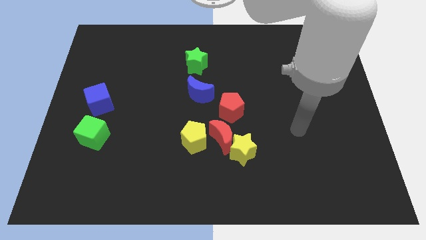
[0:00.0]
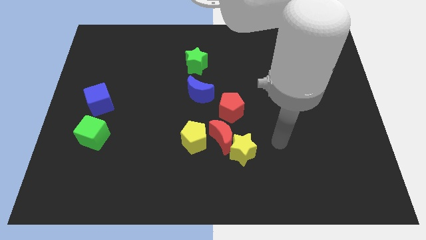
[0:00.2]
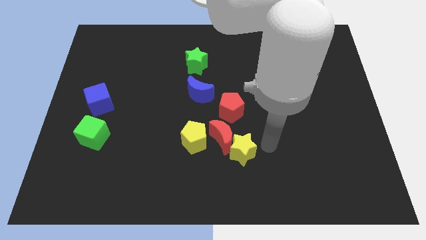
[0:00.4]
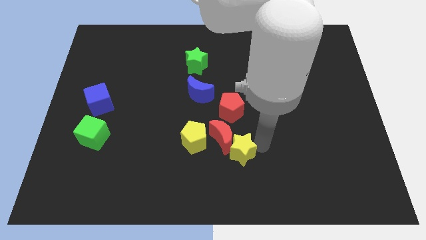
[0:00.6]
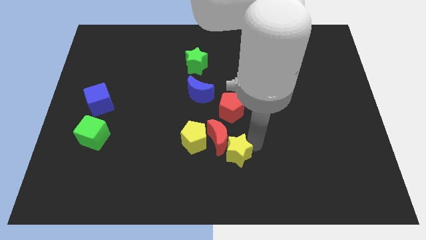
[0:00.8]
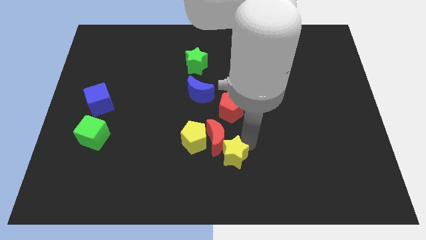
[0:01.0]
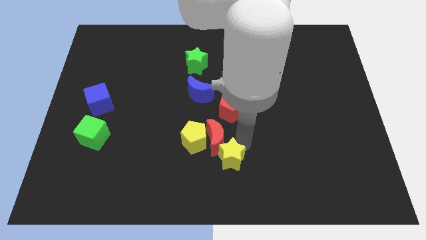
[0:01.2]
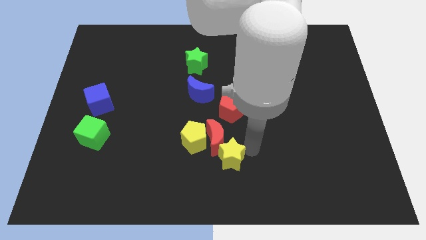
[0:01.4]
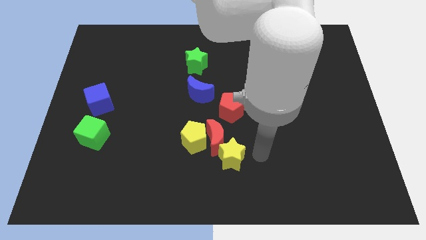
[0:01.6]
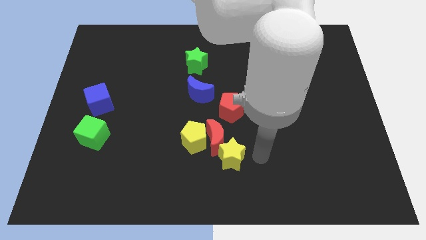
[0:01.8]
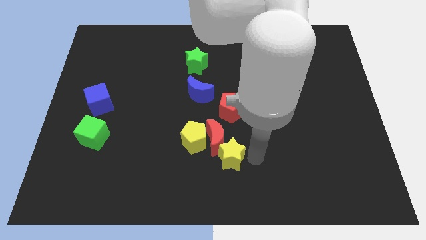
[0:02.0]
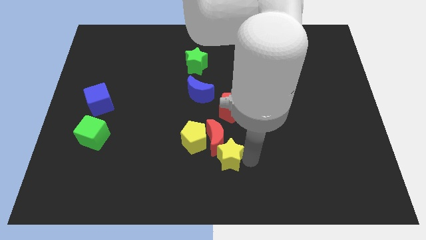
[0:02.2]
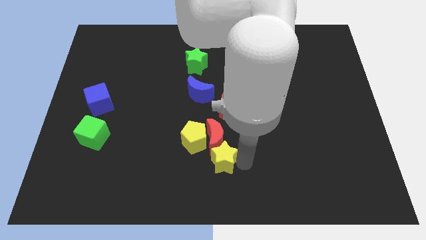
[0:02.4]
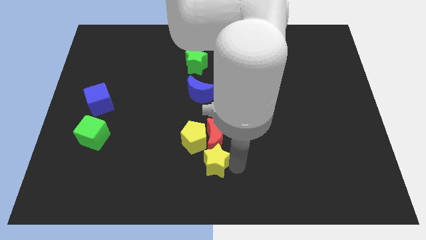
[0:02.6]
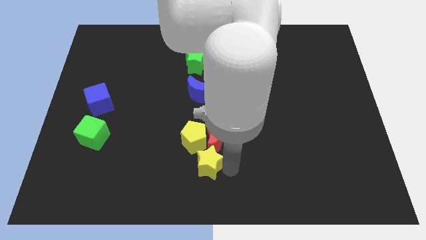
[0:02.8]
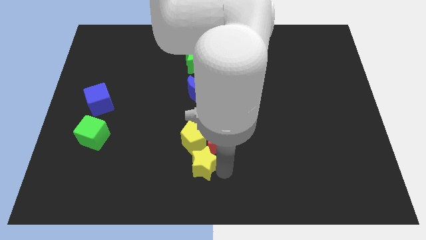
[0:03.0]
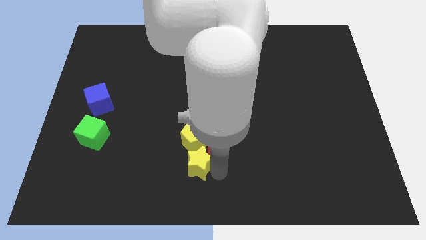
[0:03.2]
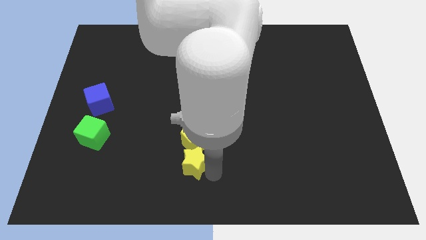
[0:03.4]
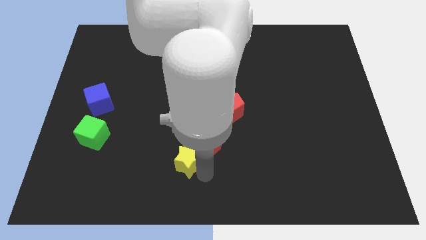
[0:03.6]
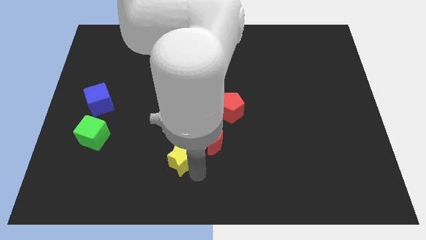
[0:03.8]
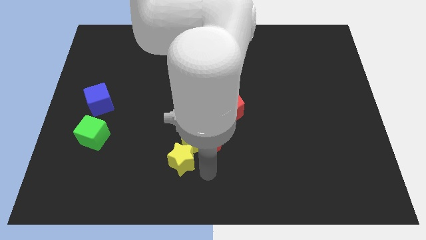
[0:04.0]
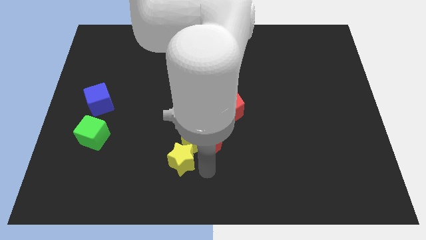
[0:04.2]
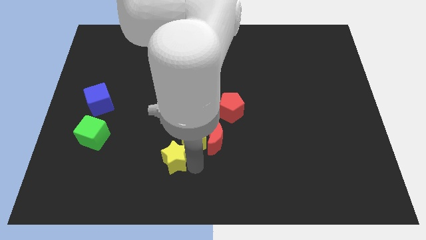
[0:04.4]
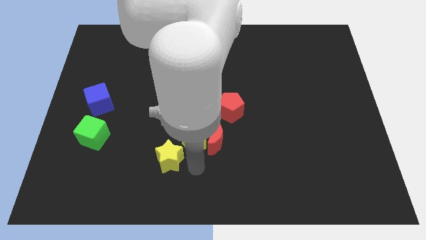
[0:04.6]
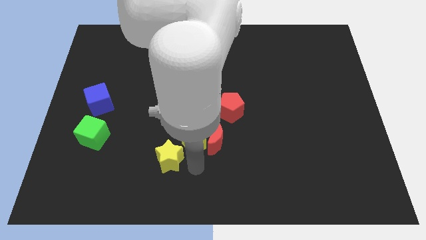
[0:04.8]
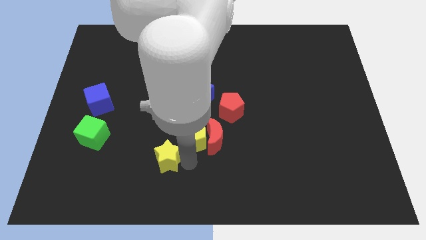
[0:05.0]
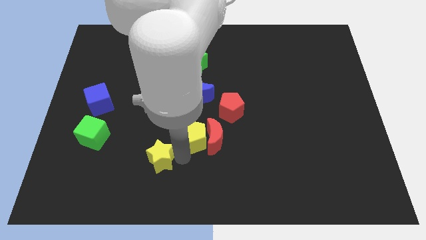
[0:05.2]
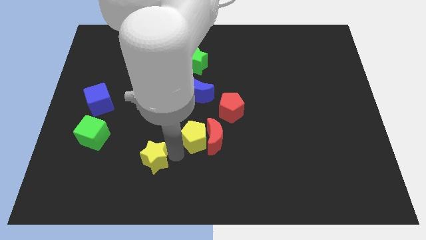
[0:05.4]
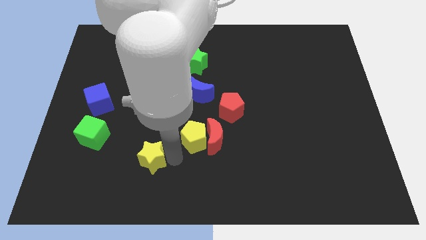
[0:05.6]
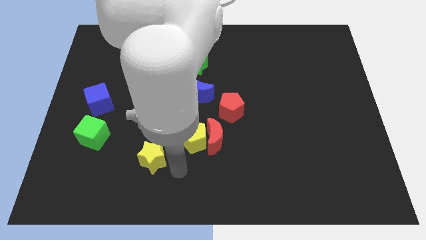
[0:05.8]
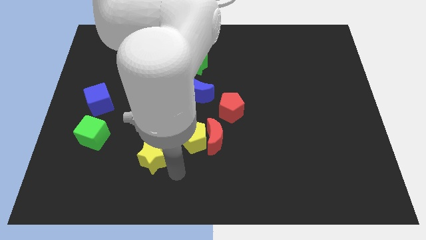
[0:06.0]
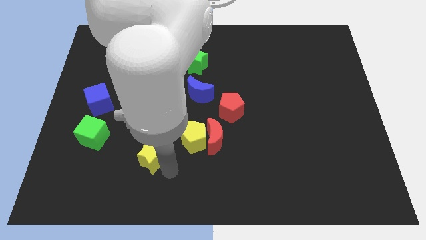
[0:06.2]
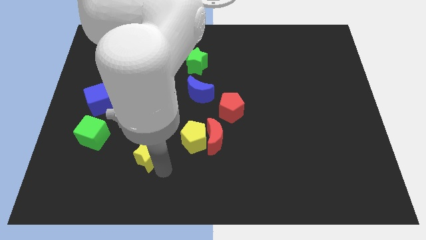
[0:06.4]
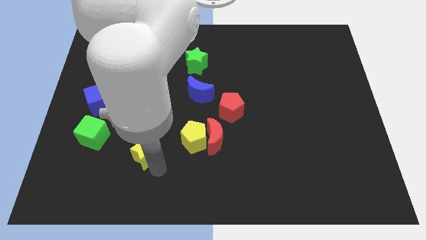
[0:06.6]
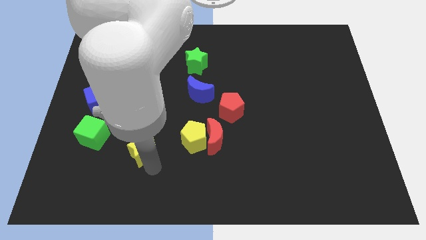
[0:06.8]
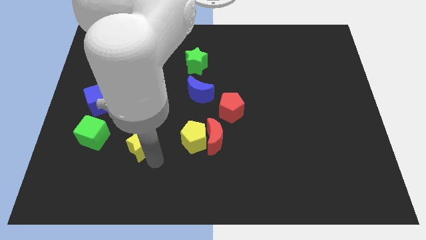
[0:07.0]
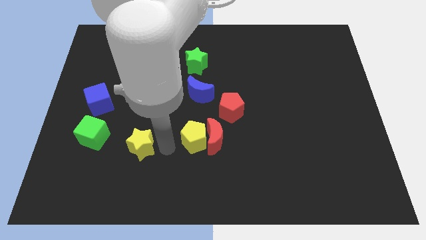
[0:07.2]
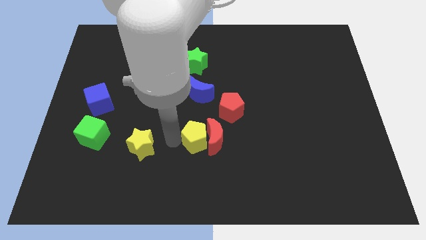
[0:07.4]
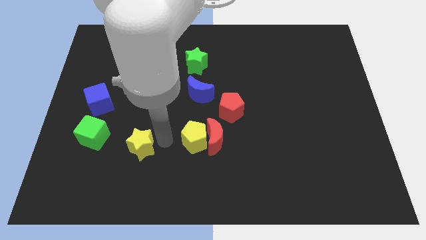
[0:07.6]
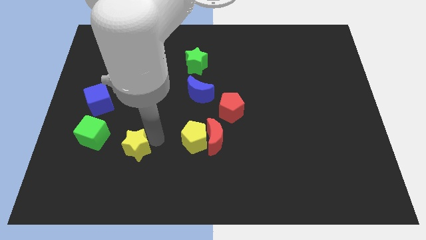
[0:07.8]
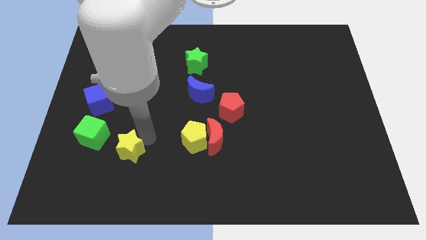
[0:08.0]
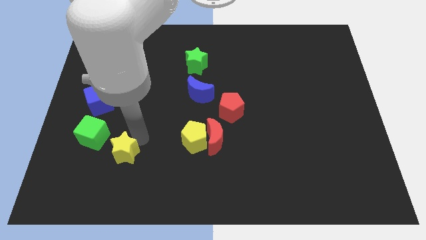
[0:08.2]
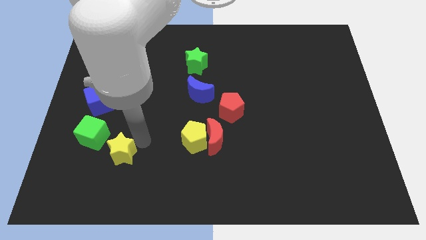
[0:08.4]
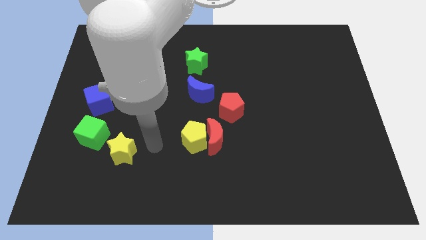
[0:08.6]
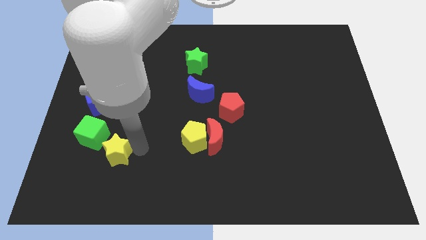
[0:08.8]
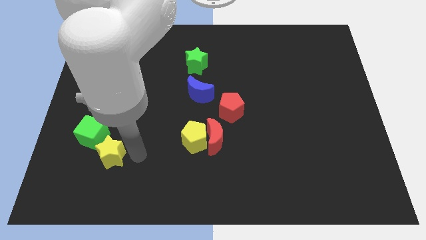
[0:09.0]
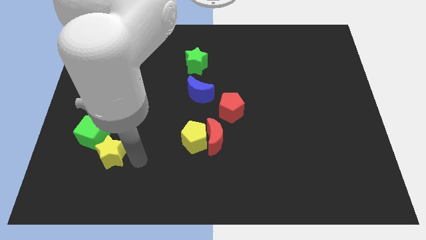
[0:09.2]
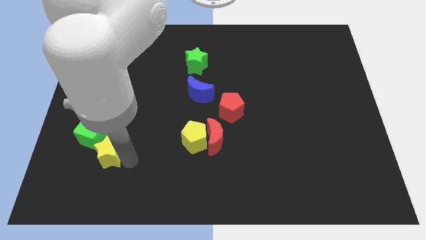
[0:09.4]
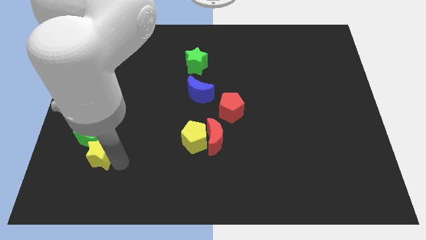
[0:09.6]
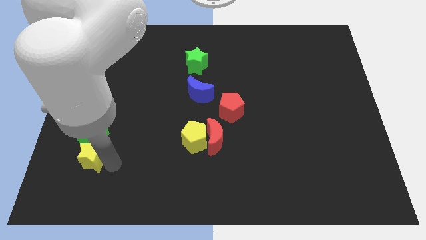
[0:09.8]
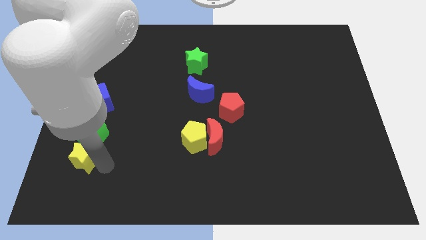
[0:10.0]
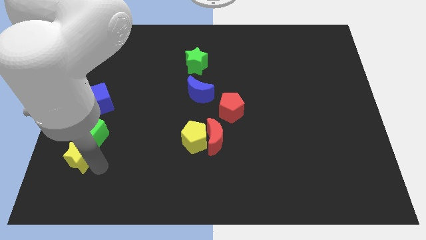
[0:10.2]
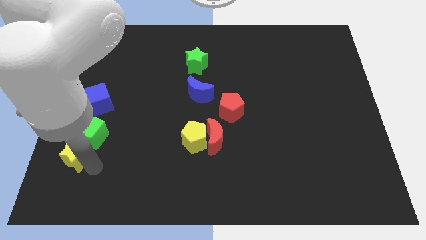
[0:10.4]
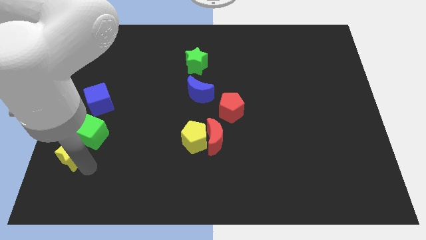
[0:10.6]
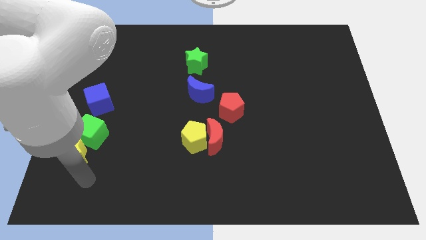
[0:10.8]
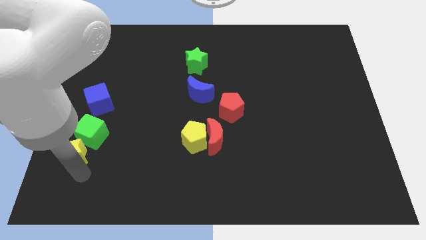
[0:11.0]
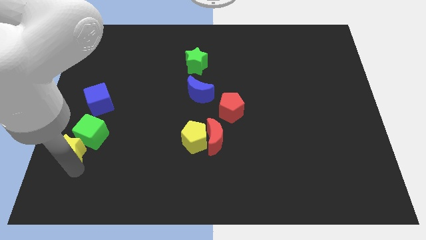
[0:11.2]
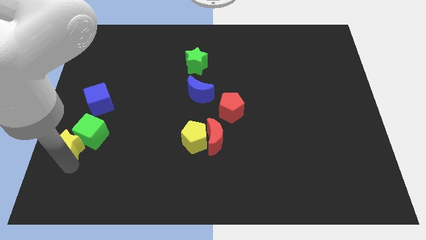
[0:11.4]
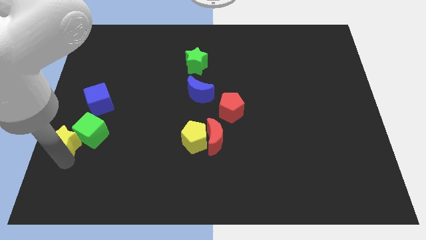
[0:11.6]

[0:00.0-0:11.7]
move the yellow star to the left side of the board

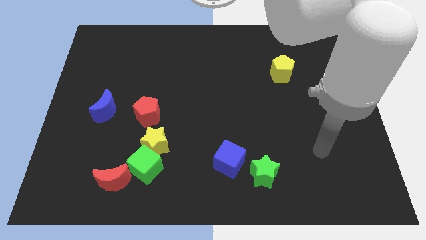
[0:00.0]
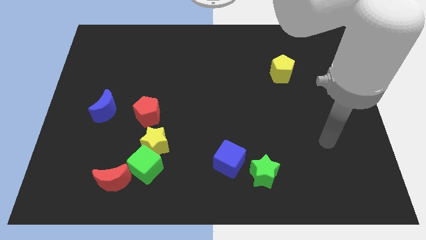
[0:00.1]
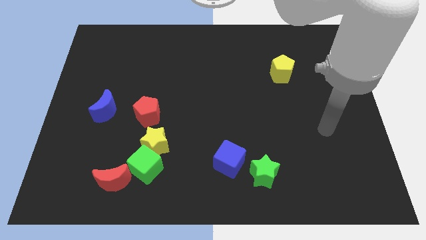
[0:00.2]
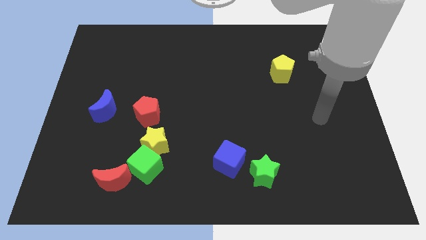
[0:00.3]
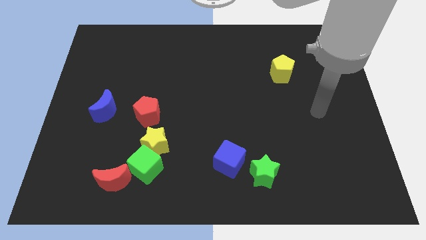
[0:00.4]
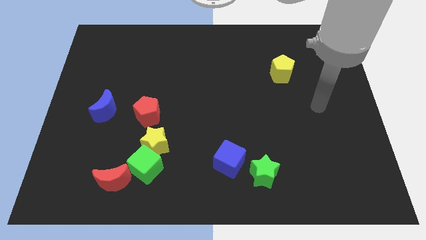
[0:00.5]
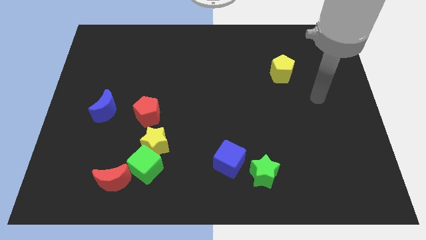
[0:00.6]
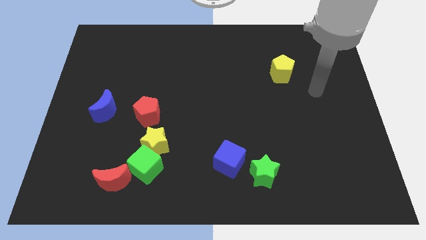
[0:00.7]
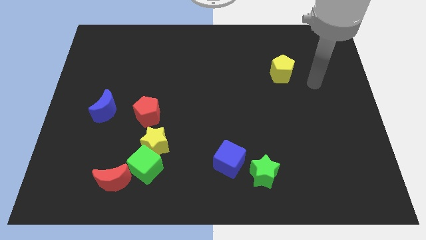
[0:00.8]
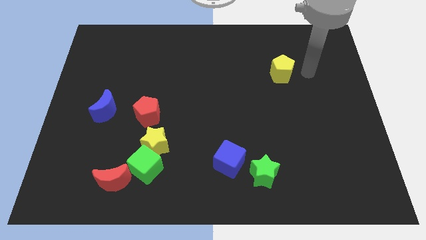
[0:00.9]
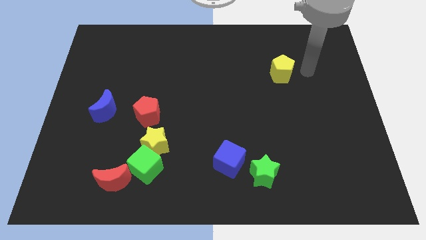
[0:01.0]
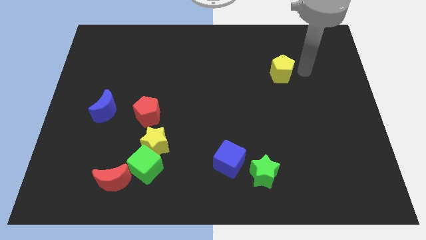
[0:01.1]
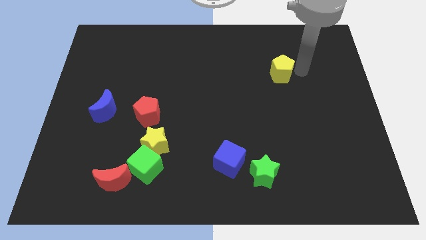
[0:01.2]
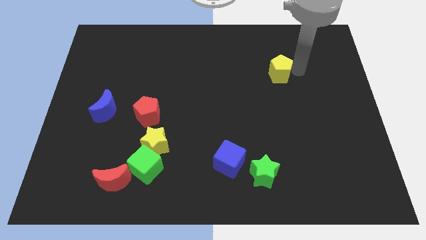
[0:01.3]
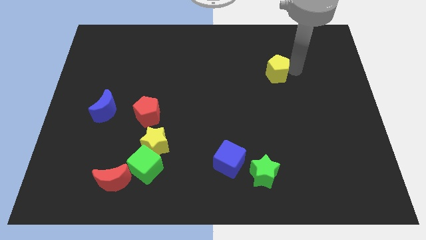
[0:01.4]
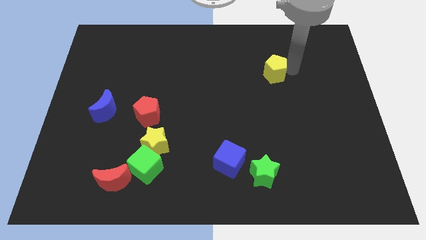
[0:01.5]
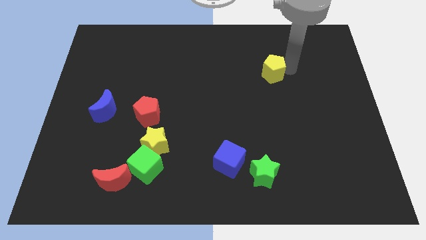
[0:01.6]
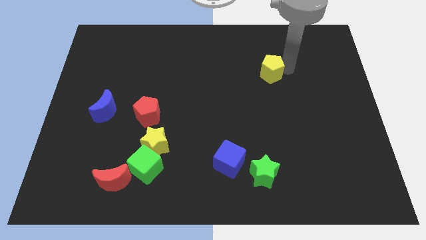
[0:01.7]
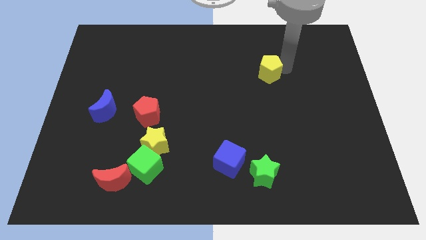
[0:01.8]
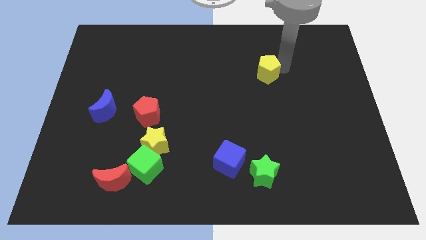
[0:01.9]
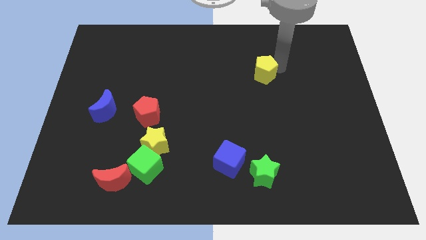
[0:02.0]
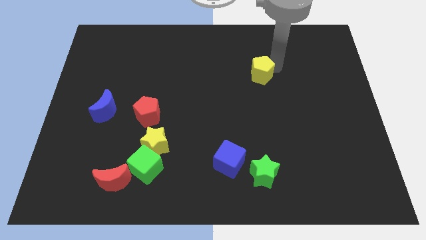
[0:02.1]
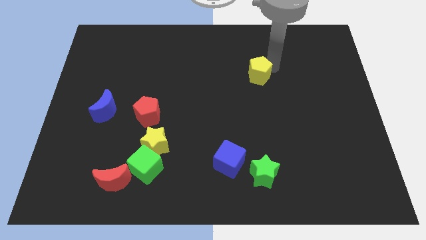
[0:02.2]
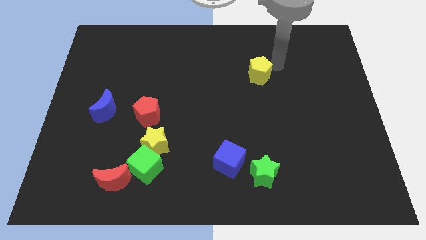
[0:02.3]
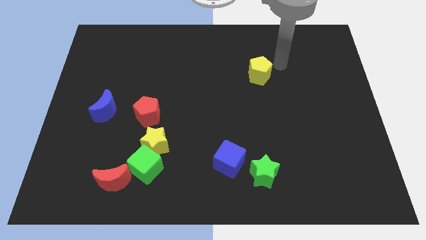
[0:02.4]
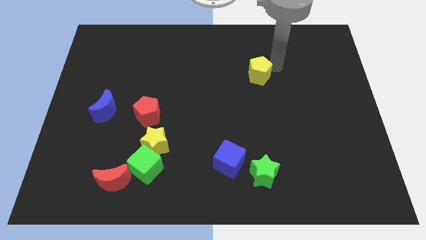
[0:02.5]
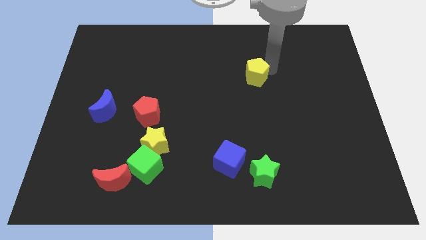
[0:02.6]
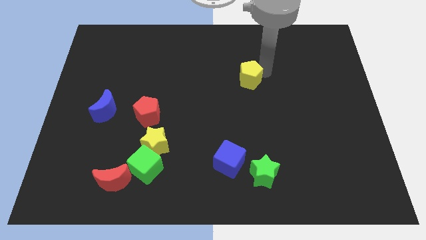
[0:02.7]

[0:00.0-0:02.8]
push the yellow pentagon to the middle
